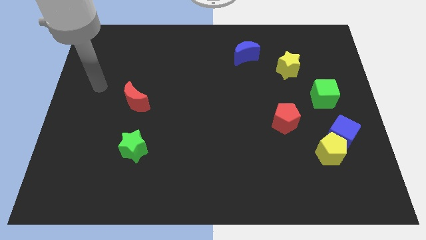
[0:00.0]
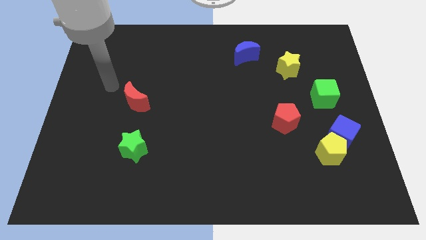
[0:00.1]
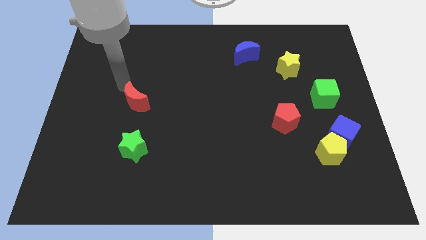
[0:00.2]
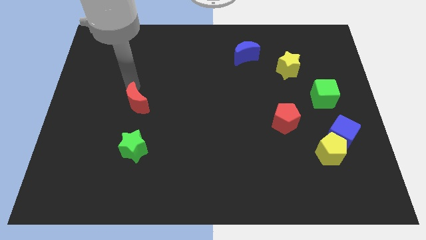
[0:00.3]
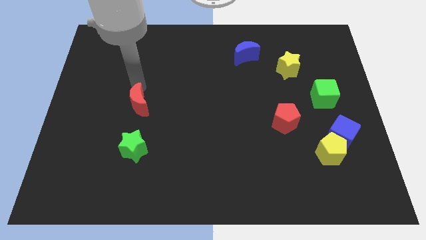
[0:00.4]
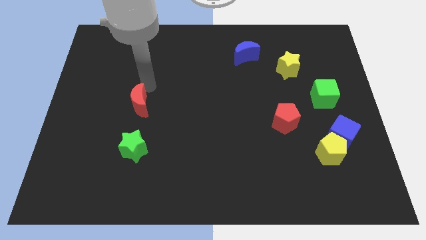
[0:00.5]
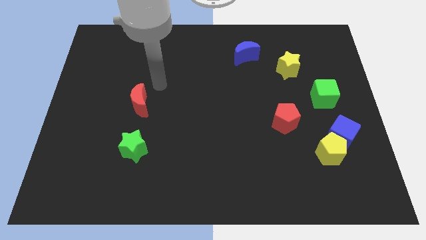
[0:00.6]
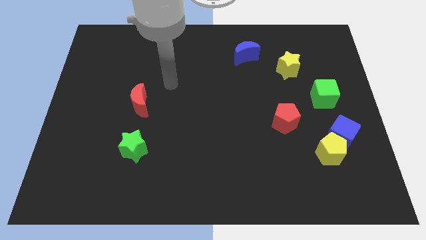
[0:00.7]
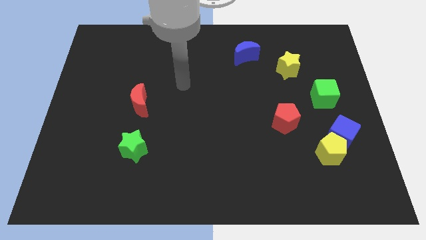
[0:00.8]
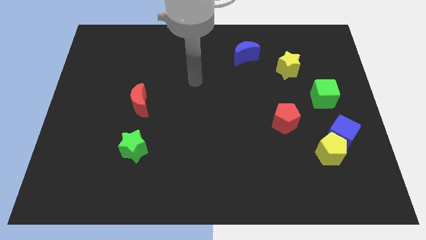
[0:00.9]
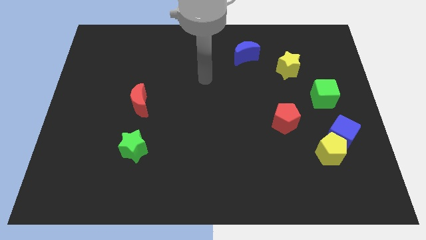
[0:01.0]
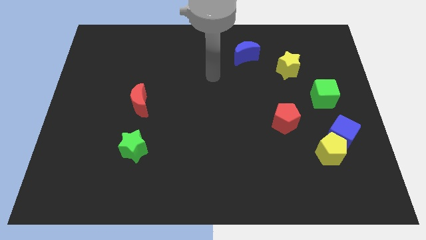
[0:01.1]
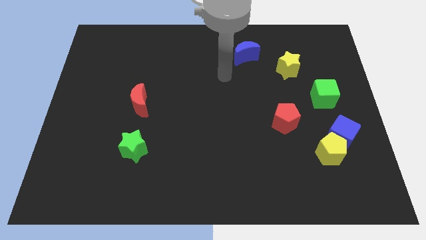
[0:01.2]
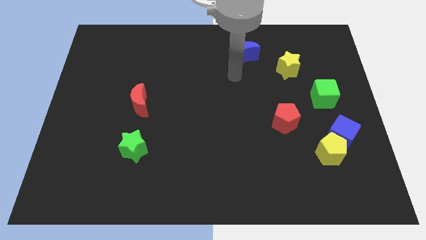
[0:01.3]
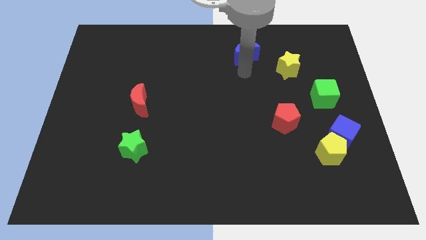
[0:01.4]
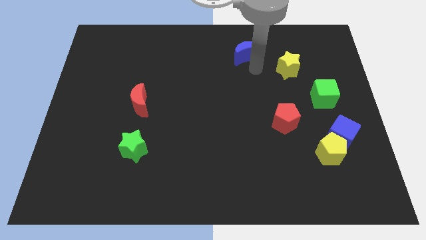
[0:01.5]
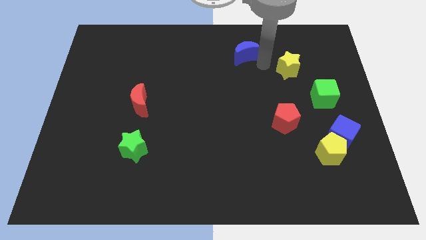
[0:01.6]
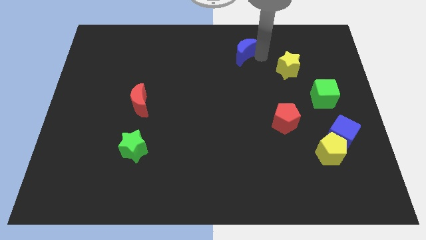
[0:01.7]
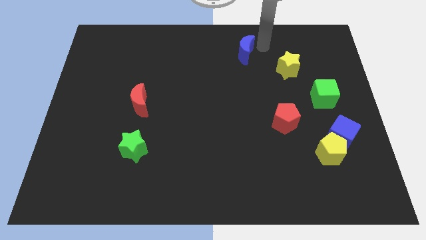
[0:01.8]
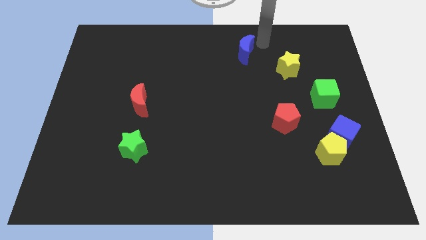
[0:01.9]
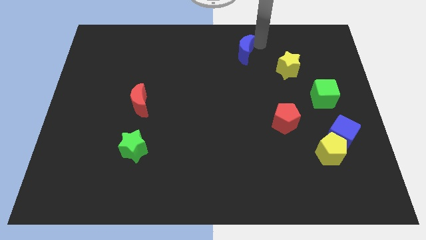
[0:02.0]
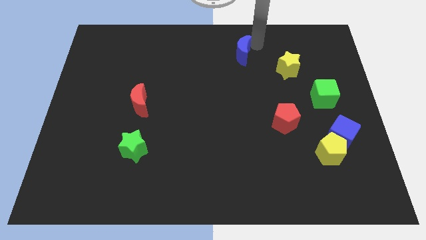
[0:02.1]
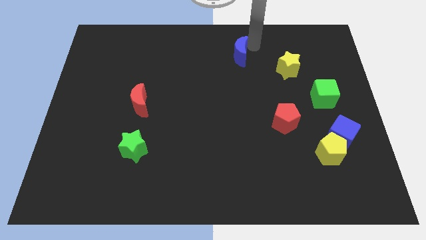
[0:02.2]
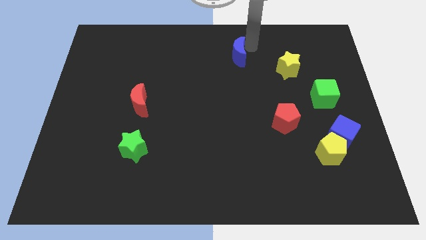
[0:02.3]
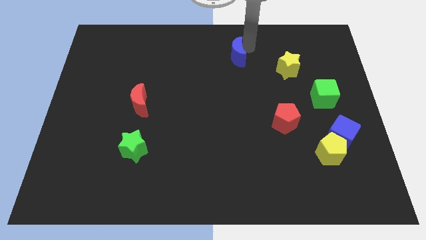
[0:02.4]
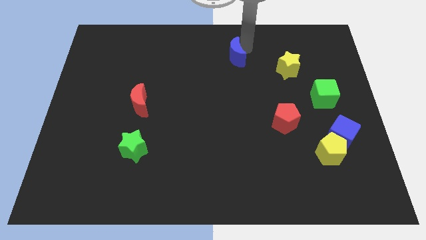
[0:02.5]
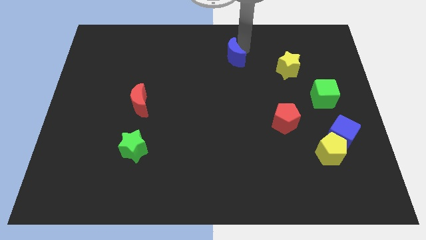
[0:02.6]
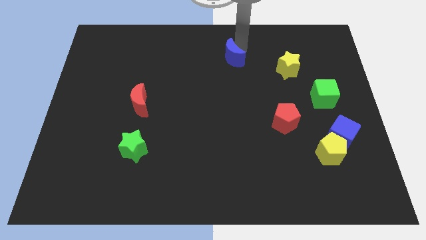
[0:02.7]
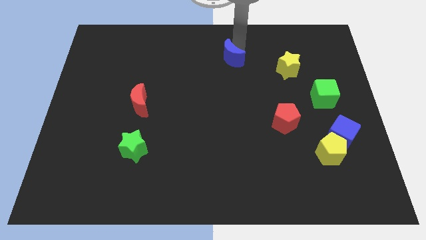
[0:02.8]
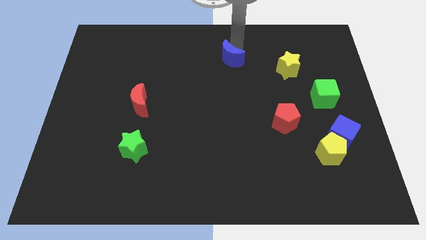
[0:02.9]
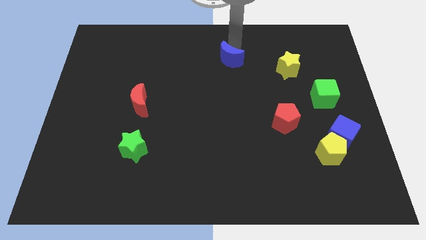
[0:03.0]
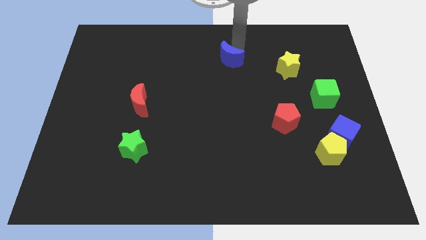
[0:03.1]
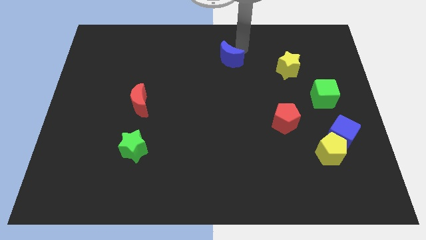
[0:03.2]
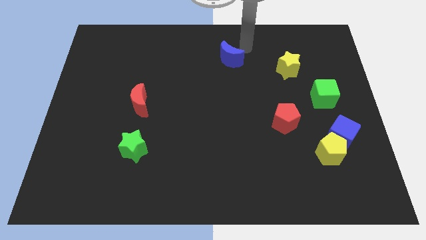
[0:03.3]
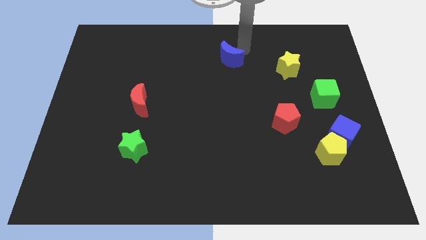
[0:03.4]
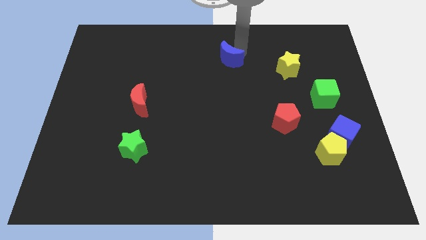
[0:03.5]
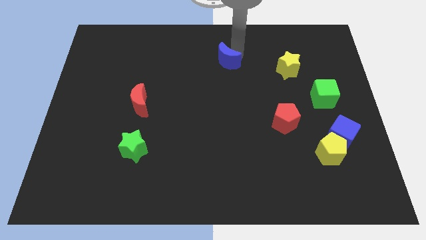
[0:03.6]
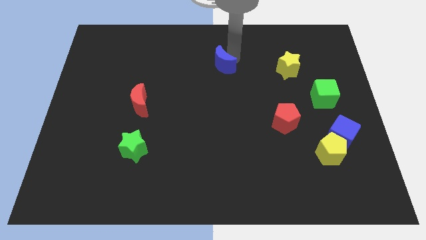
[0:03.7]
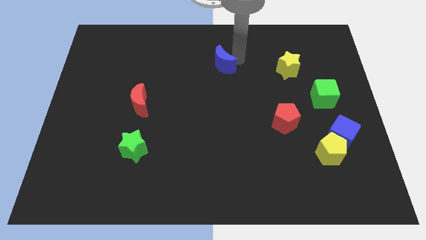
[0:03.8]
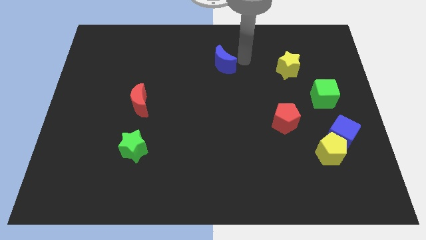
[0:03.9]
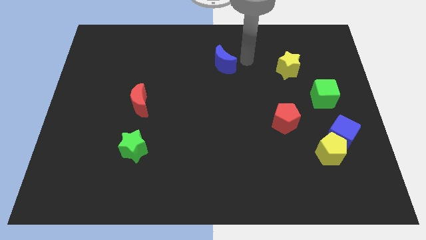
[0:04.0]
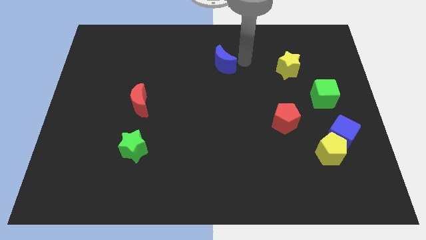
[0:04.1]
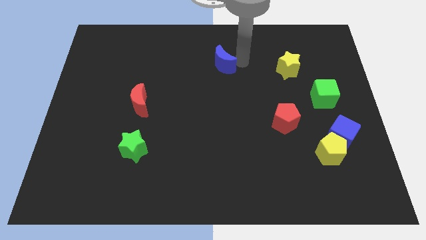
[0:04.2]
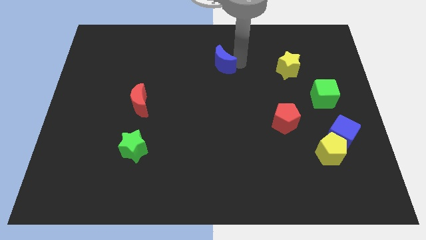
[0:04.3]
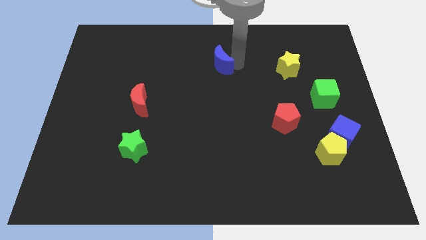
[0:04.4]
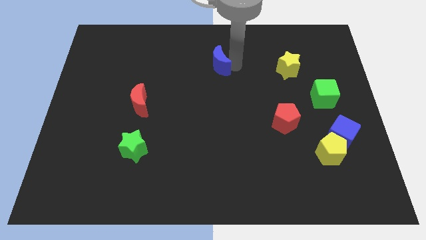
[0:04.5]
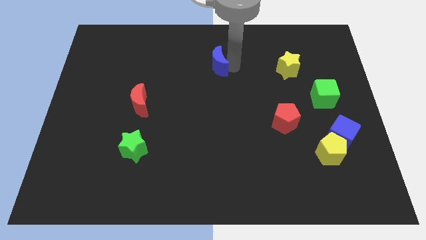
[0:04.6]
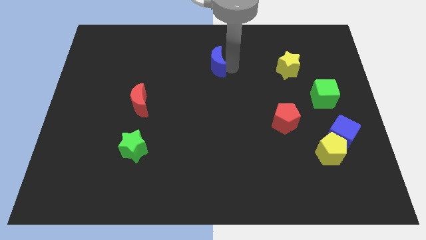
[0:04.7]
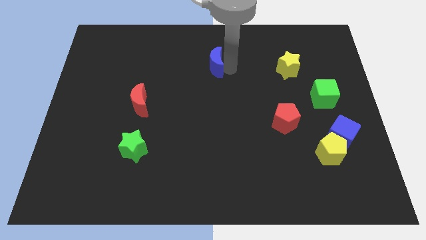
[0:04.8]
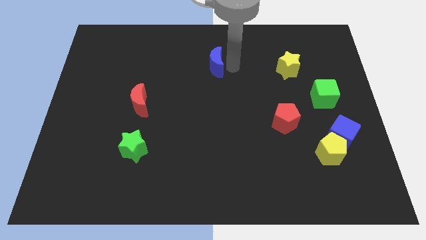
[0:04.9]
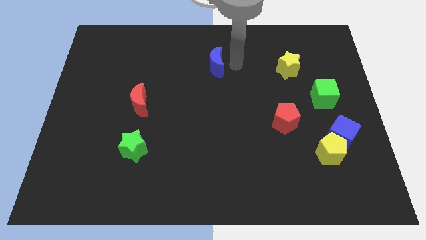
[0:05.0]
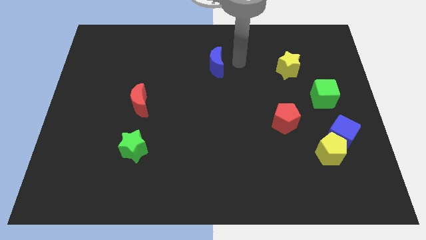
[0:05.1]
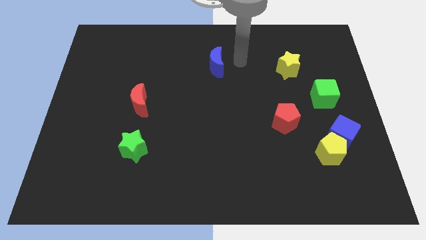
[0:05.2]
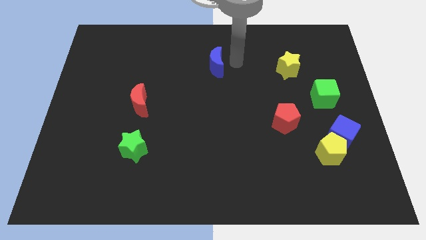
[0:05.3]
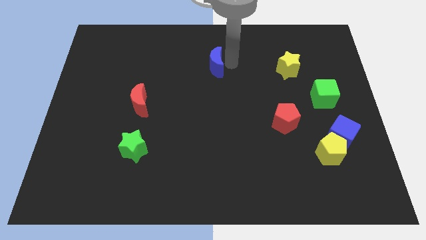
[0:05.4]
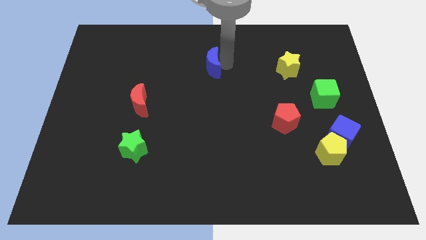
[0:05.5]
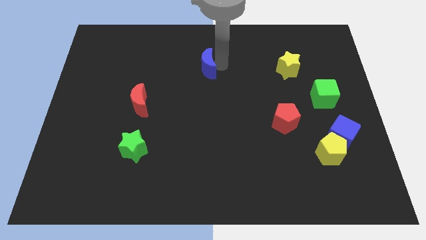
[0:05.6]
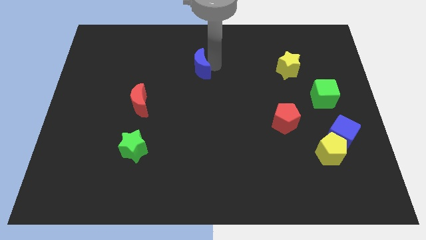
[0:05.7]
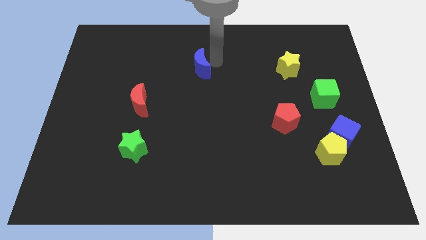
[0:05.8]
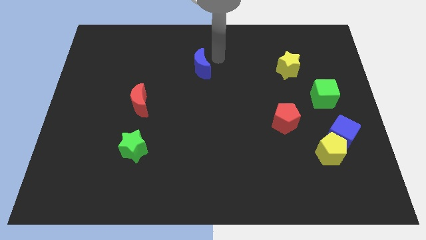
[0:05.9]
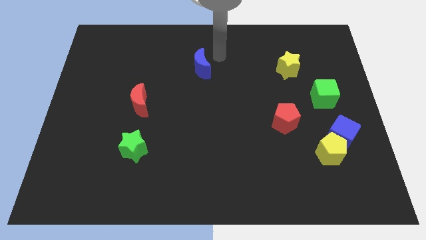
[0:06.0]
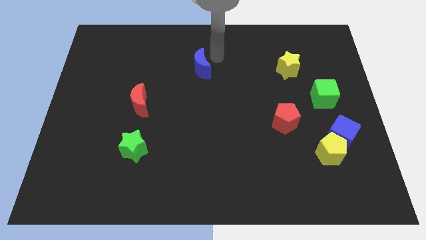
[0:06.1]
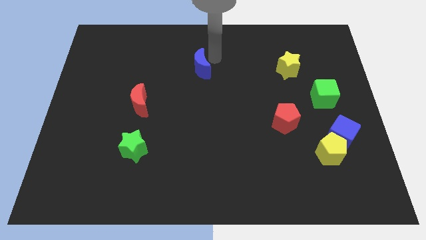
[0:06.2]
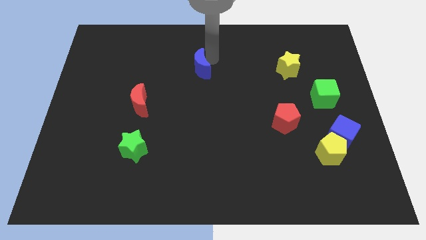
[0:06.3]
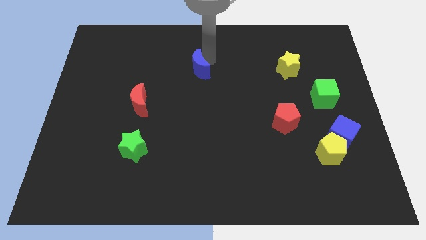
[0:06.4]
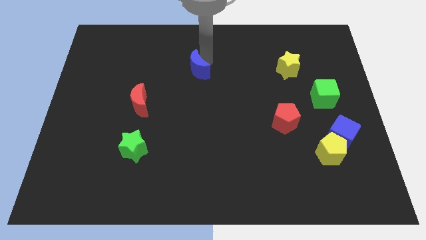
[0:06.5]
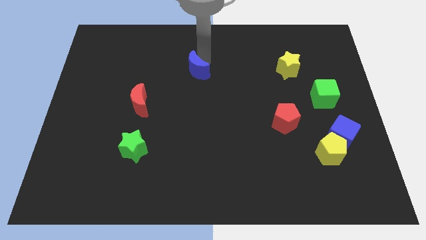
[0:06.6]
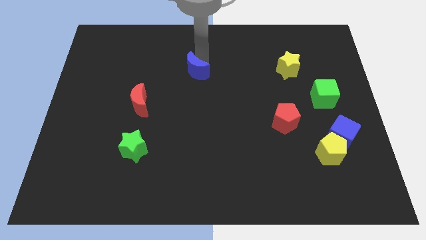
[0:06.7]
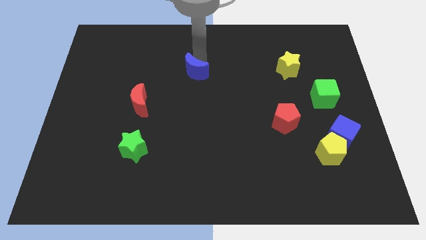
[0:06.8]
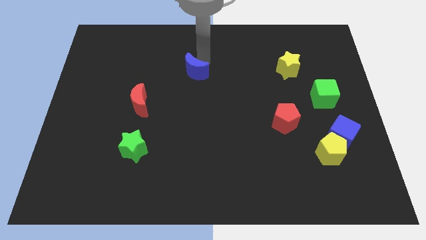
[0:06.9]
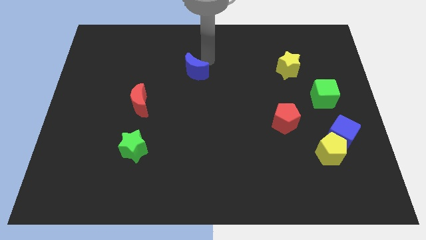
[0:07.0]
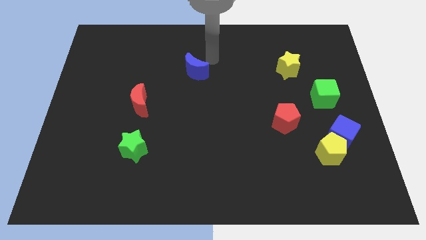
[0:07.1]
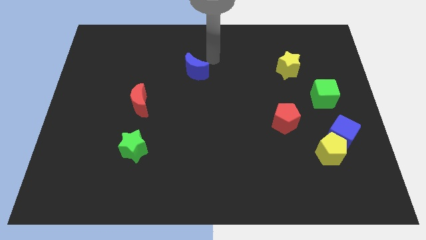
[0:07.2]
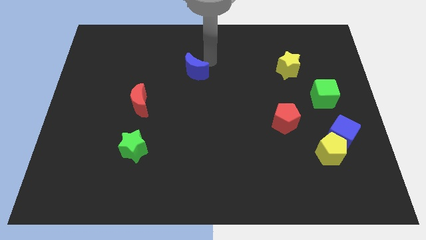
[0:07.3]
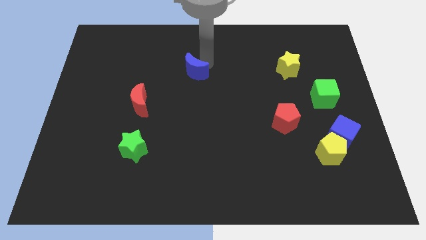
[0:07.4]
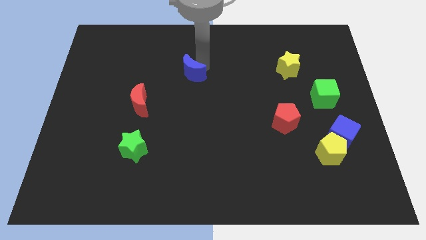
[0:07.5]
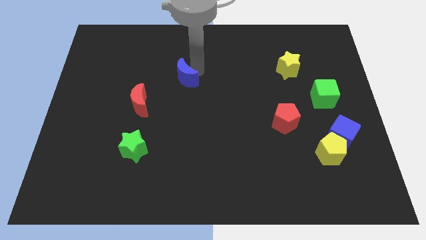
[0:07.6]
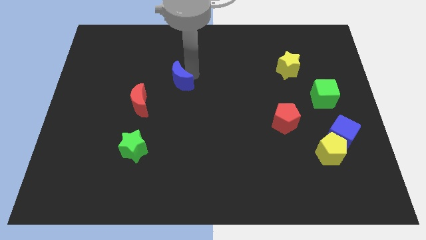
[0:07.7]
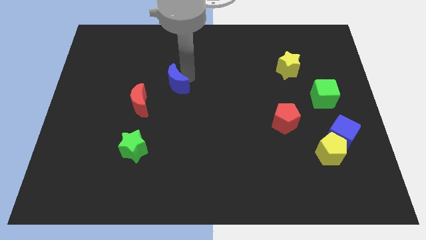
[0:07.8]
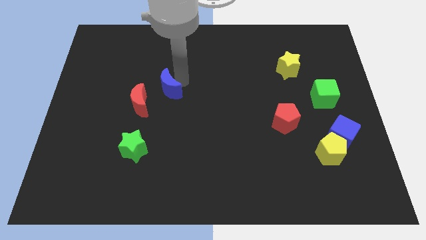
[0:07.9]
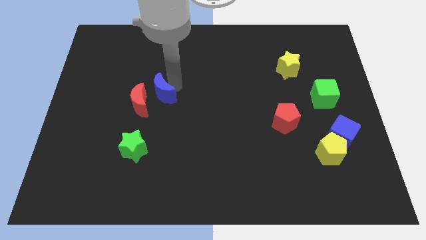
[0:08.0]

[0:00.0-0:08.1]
put the blue moon close to the red moon
